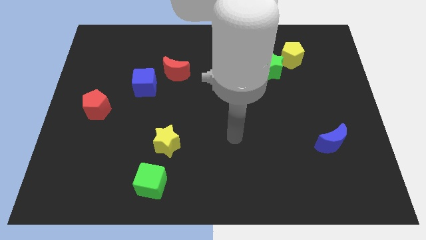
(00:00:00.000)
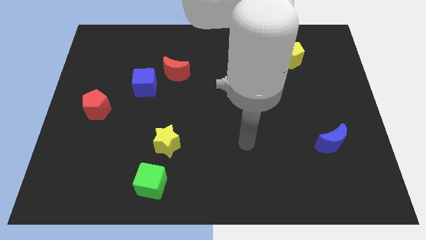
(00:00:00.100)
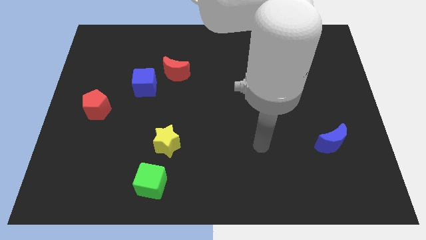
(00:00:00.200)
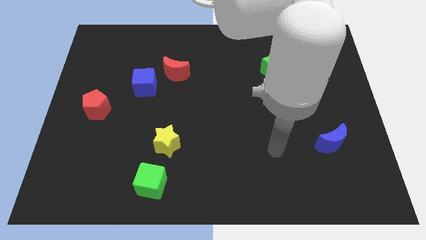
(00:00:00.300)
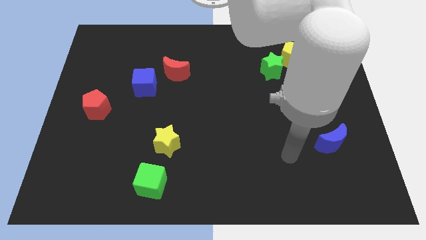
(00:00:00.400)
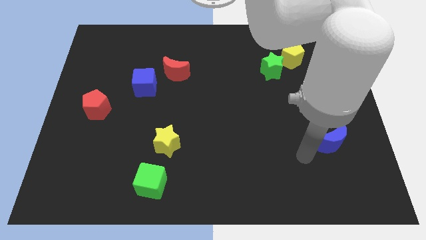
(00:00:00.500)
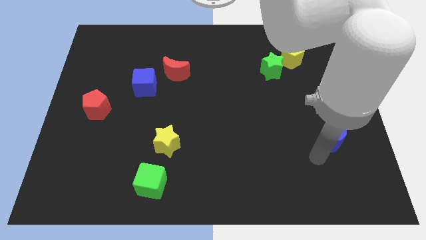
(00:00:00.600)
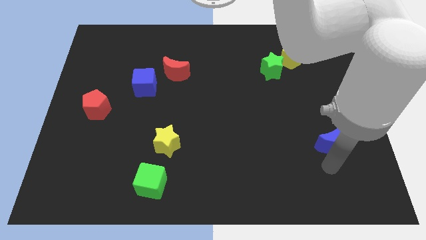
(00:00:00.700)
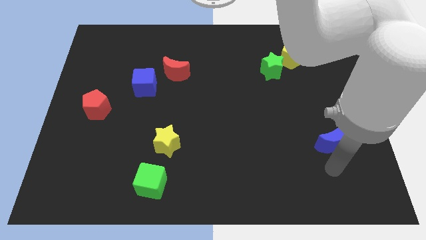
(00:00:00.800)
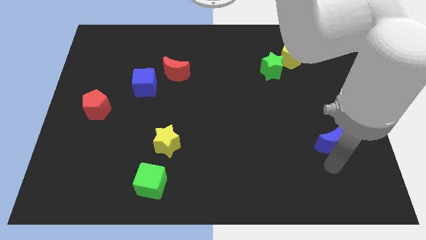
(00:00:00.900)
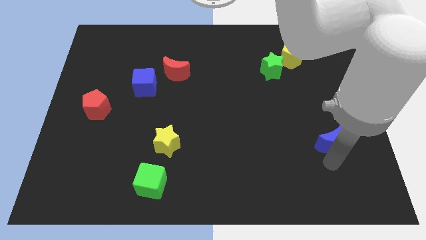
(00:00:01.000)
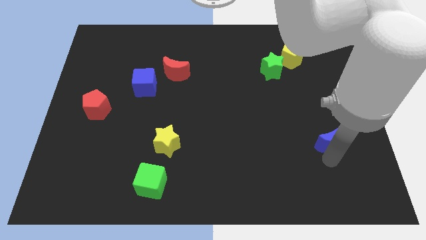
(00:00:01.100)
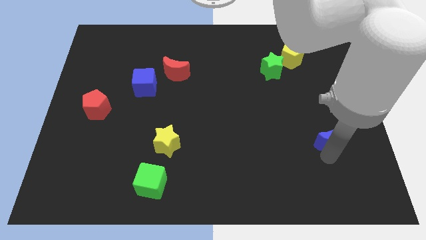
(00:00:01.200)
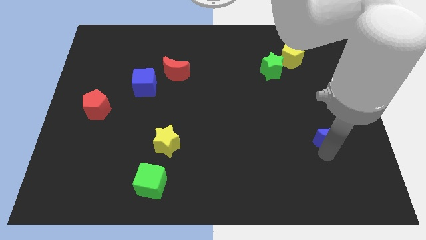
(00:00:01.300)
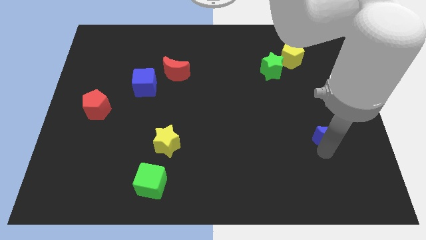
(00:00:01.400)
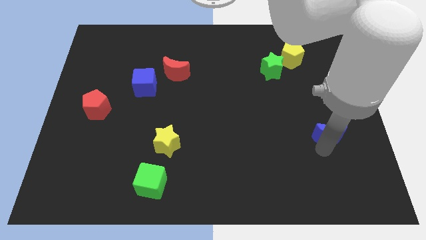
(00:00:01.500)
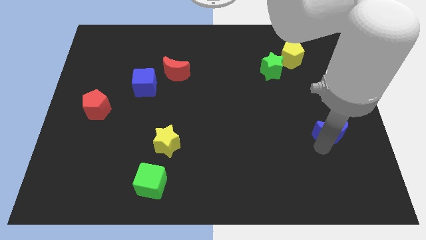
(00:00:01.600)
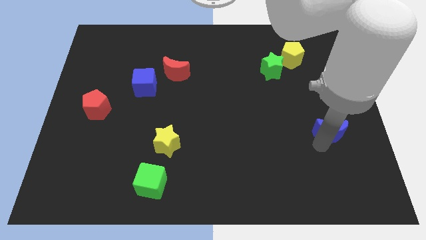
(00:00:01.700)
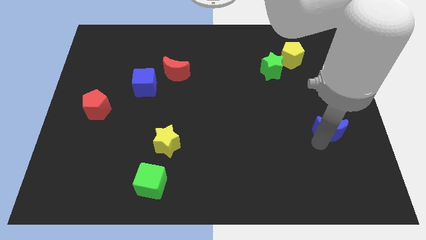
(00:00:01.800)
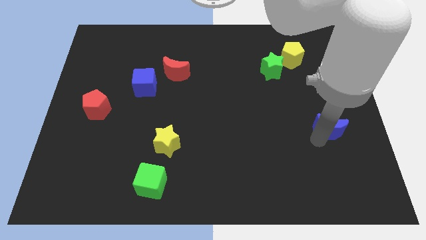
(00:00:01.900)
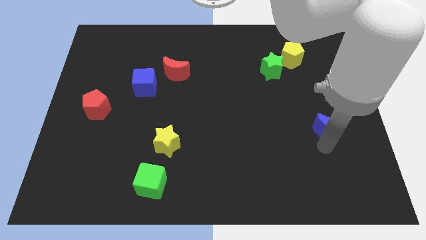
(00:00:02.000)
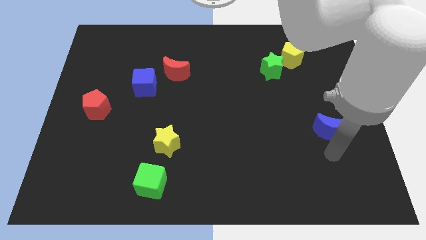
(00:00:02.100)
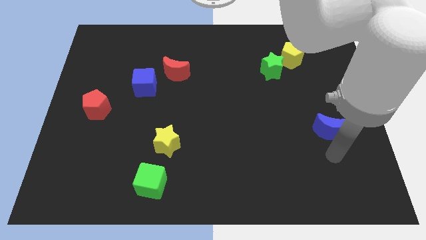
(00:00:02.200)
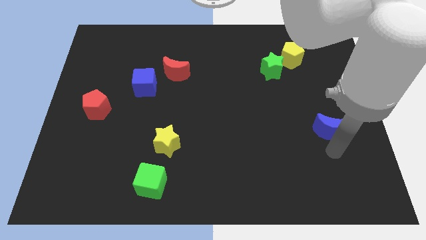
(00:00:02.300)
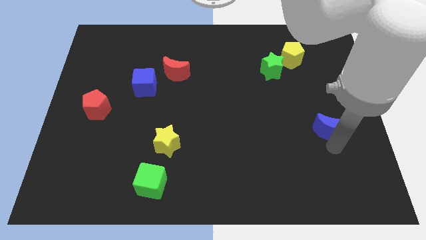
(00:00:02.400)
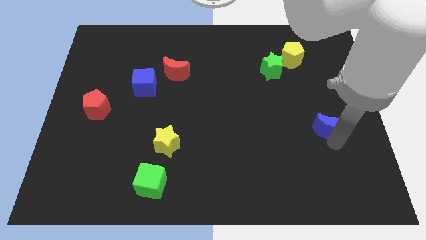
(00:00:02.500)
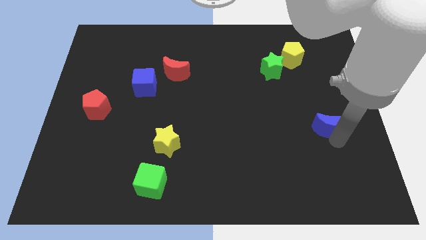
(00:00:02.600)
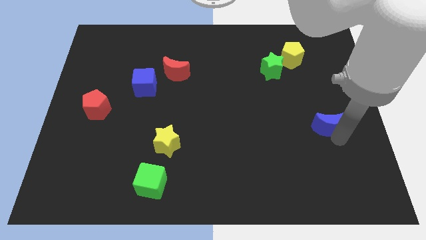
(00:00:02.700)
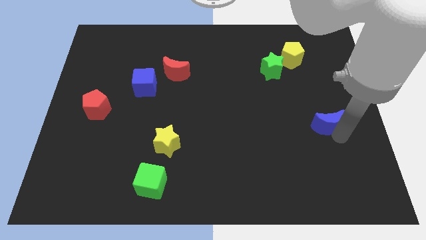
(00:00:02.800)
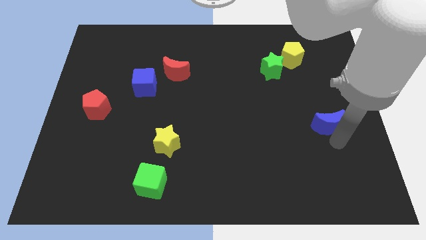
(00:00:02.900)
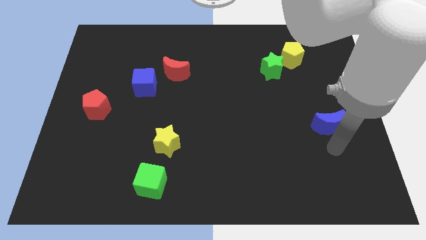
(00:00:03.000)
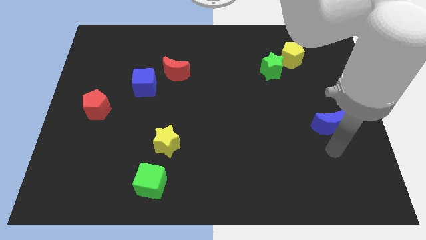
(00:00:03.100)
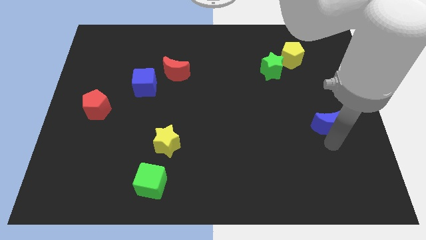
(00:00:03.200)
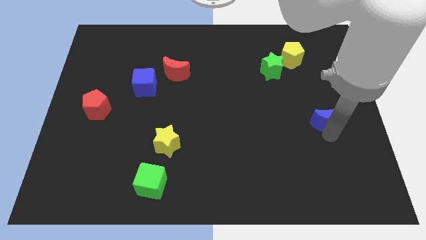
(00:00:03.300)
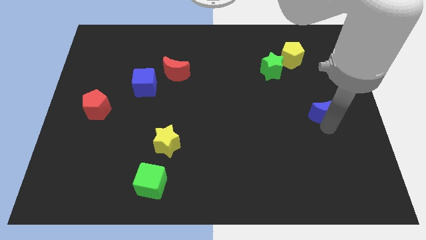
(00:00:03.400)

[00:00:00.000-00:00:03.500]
slightly move the blue moon up

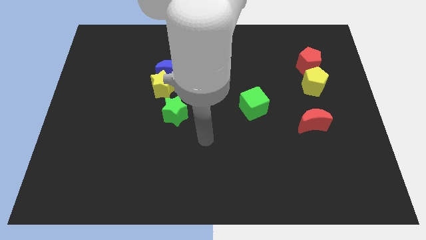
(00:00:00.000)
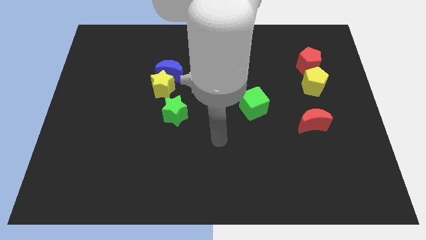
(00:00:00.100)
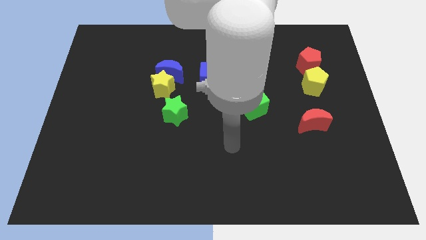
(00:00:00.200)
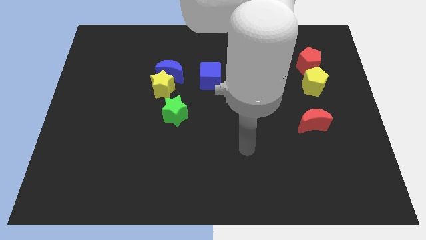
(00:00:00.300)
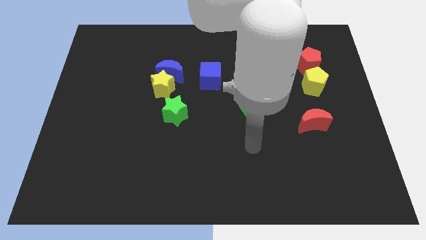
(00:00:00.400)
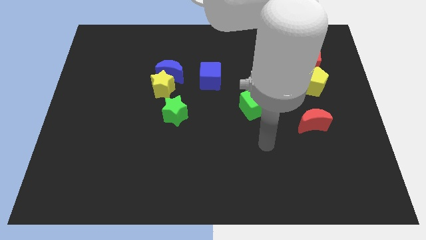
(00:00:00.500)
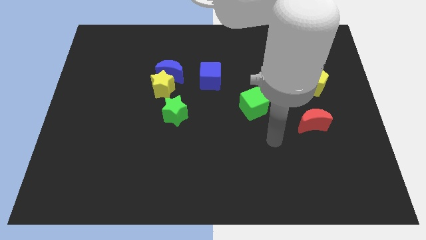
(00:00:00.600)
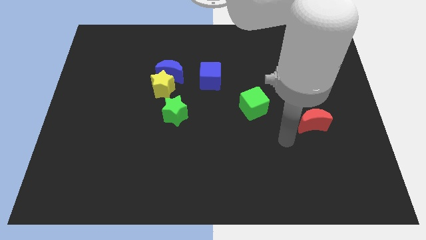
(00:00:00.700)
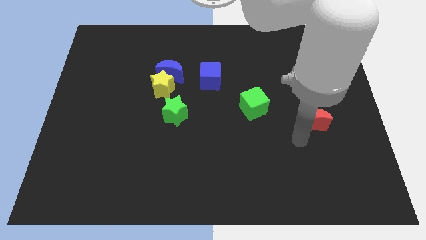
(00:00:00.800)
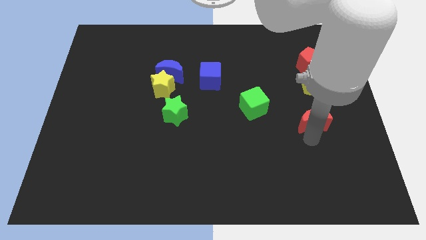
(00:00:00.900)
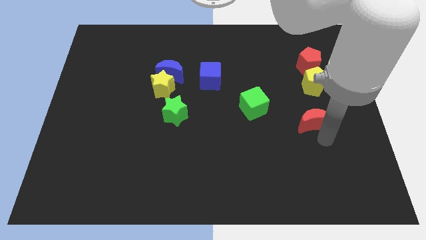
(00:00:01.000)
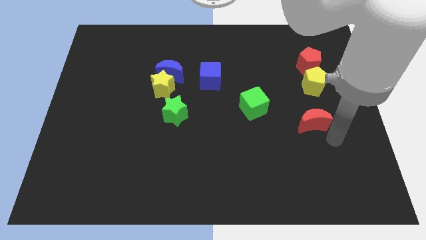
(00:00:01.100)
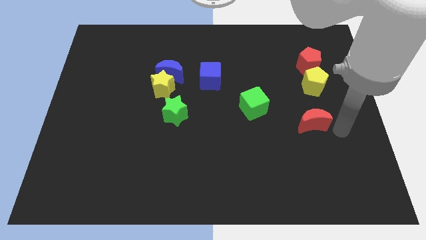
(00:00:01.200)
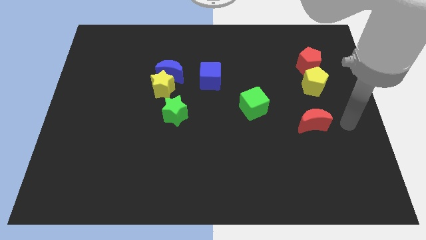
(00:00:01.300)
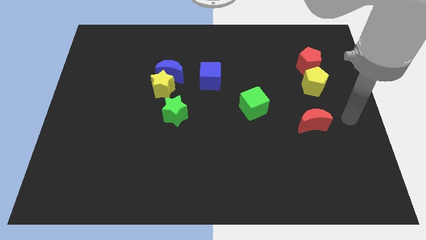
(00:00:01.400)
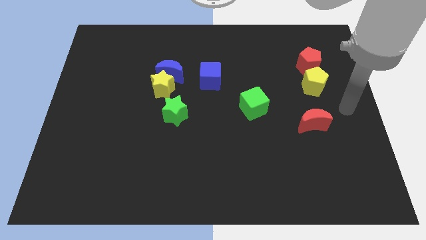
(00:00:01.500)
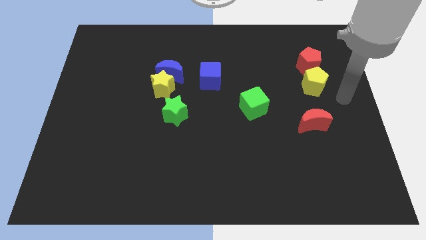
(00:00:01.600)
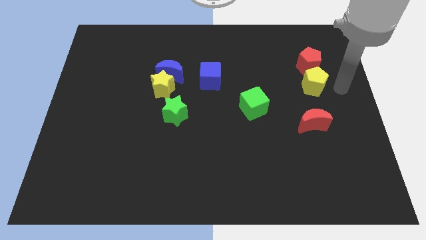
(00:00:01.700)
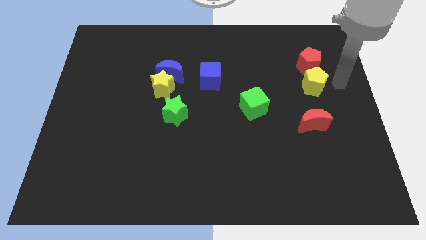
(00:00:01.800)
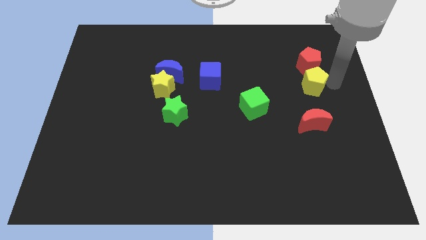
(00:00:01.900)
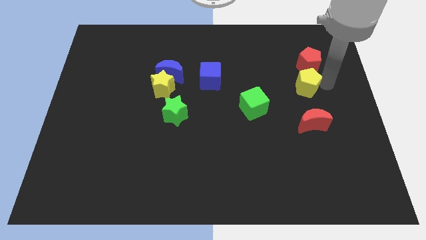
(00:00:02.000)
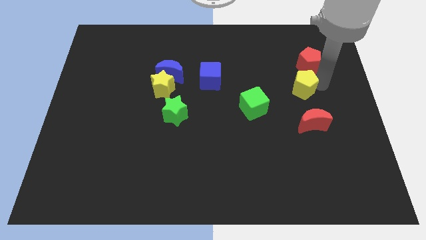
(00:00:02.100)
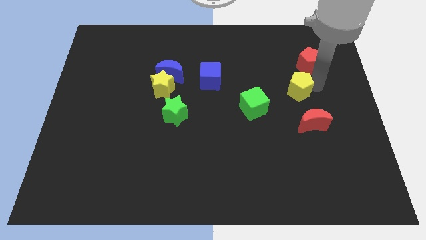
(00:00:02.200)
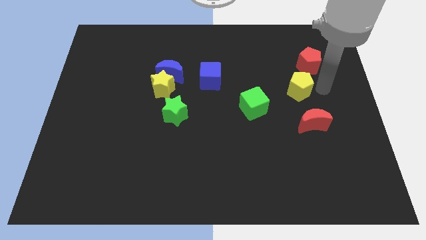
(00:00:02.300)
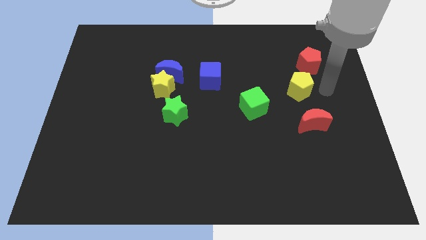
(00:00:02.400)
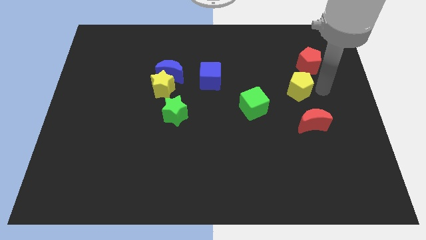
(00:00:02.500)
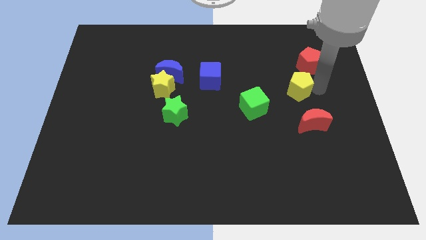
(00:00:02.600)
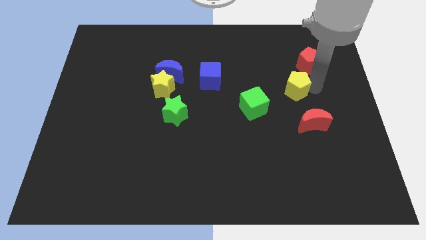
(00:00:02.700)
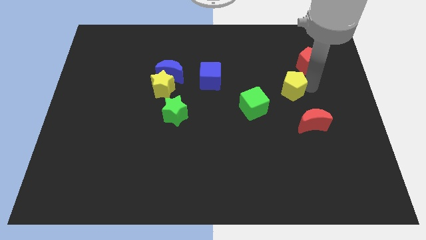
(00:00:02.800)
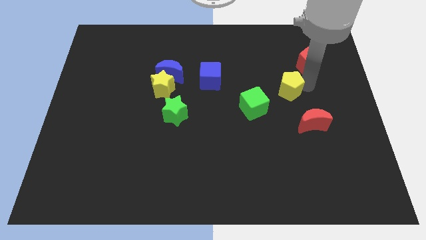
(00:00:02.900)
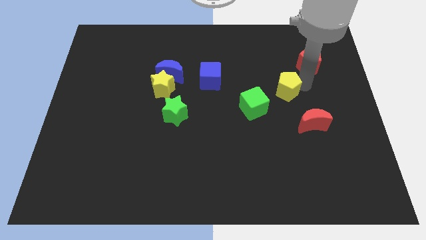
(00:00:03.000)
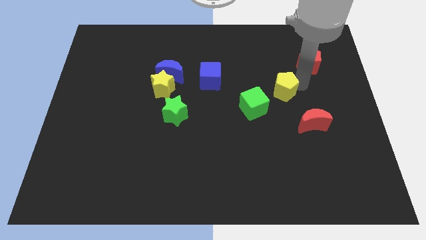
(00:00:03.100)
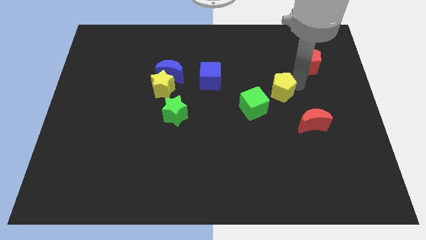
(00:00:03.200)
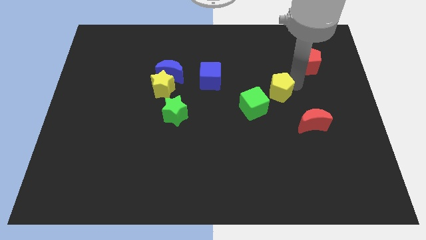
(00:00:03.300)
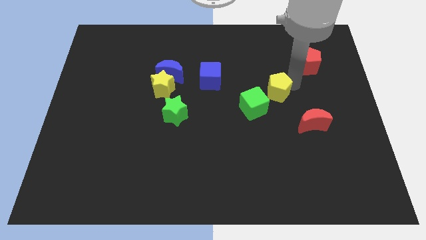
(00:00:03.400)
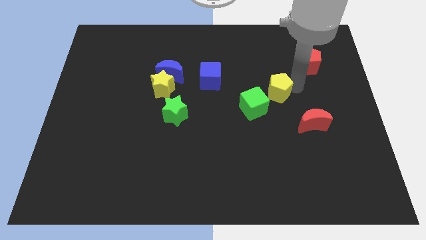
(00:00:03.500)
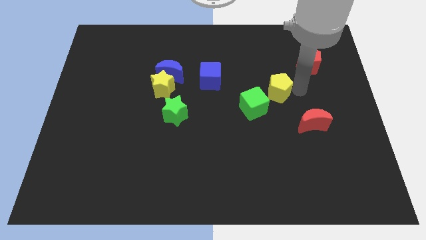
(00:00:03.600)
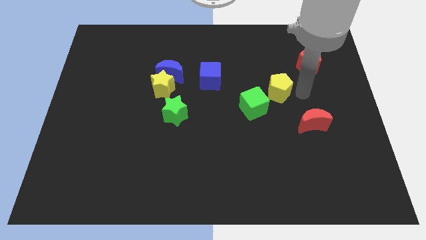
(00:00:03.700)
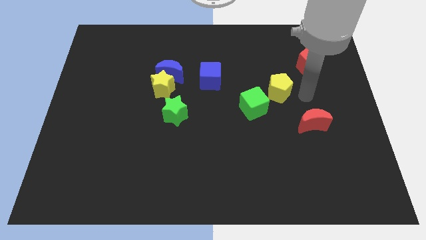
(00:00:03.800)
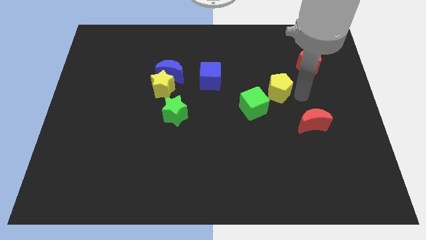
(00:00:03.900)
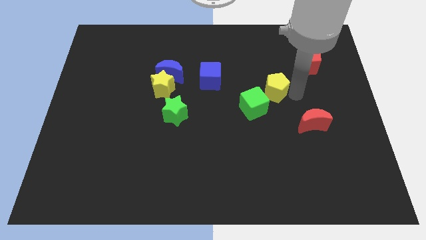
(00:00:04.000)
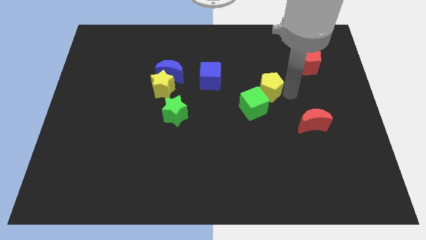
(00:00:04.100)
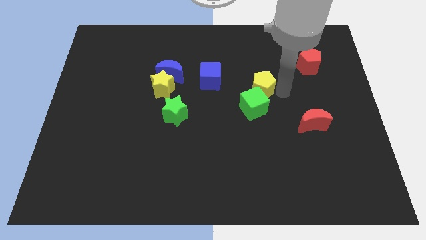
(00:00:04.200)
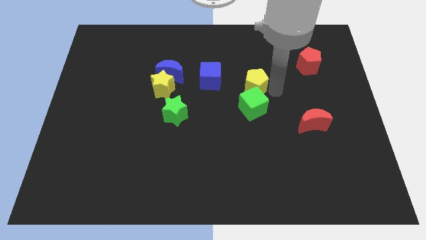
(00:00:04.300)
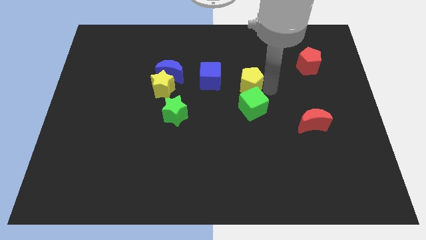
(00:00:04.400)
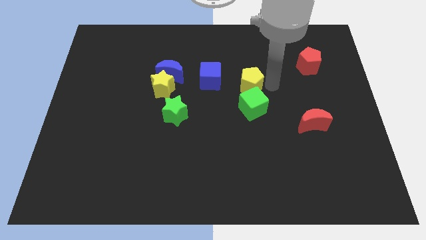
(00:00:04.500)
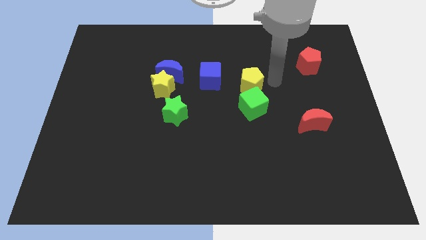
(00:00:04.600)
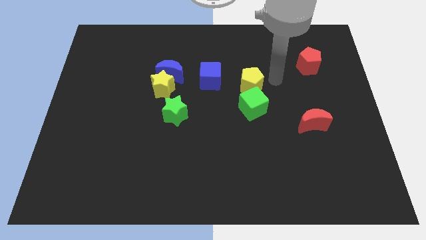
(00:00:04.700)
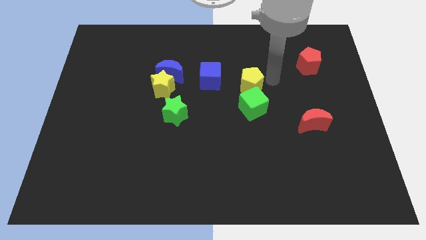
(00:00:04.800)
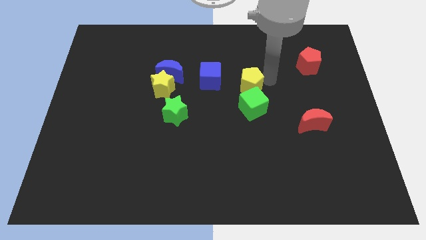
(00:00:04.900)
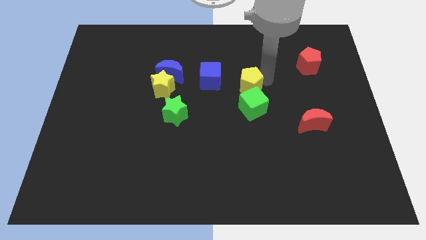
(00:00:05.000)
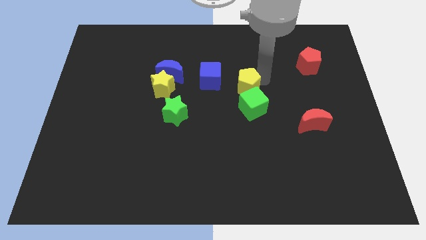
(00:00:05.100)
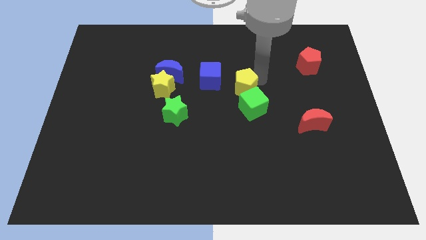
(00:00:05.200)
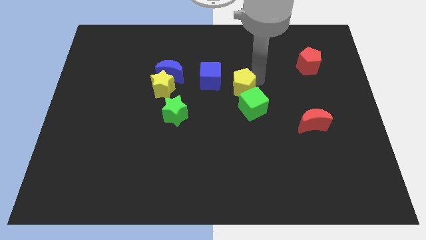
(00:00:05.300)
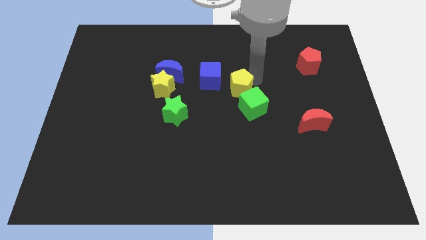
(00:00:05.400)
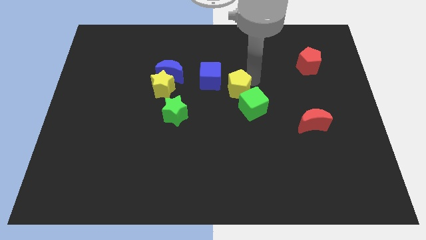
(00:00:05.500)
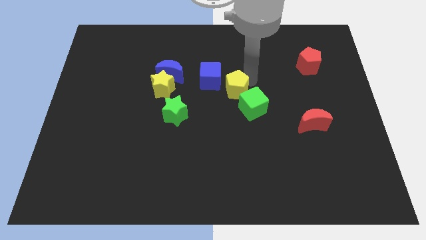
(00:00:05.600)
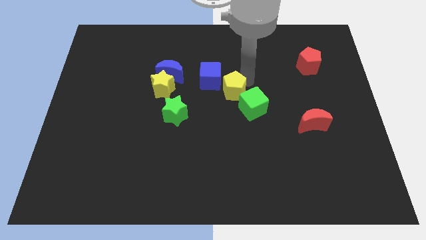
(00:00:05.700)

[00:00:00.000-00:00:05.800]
push the yellow pentagon to the left
